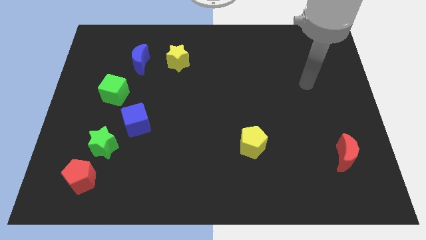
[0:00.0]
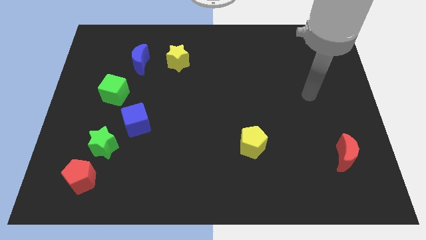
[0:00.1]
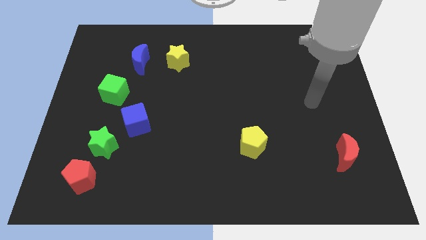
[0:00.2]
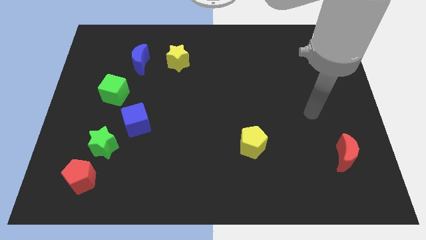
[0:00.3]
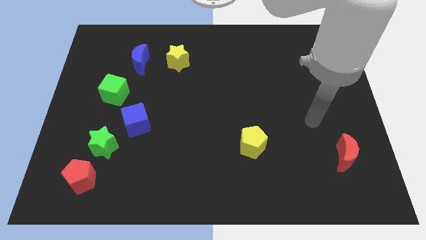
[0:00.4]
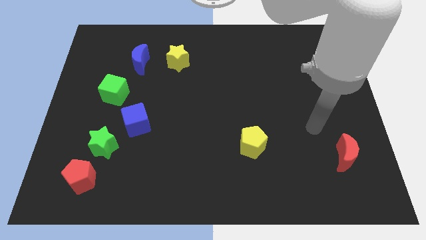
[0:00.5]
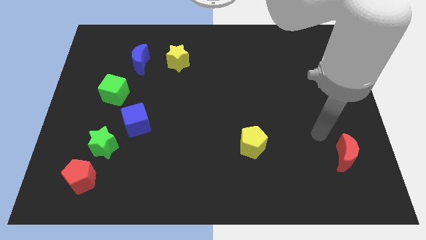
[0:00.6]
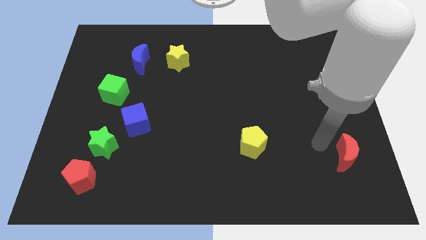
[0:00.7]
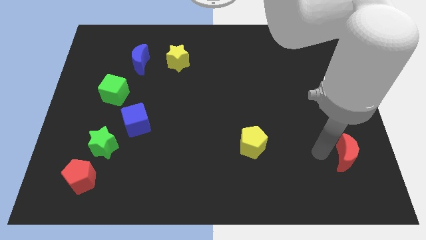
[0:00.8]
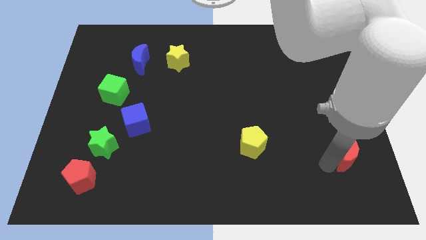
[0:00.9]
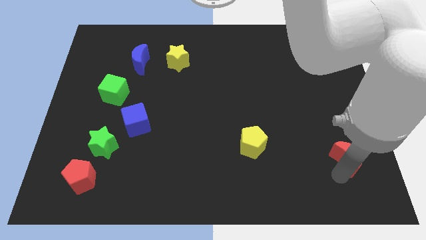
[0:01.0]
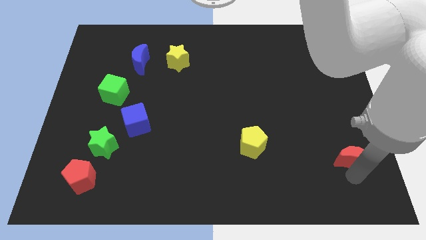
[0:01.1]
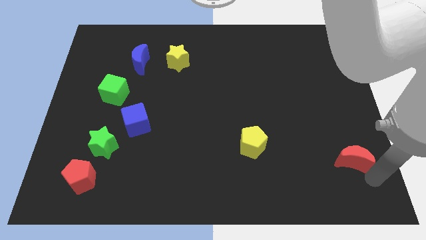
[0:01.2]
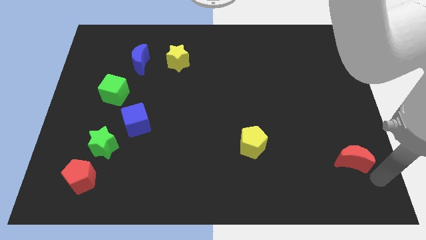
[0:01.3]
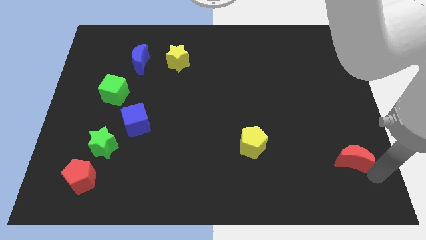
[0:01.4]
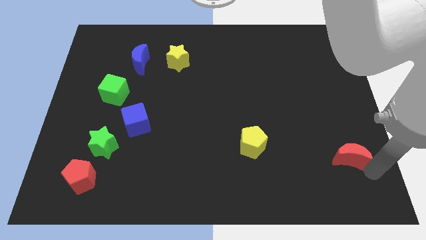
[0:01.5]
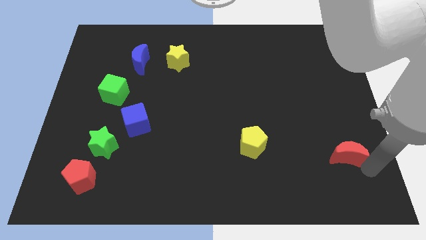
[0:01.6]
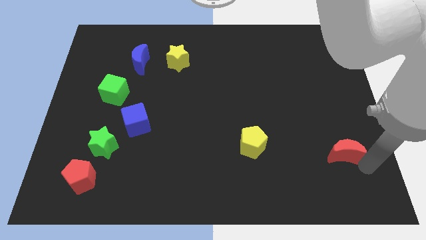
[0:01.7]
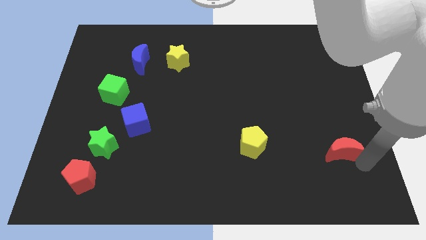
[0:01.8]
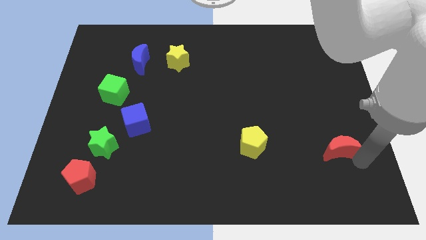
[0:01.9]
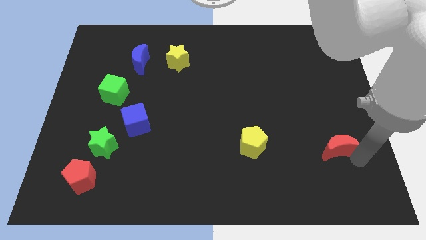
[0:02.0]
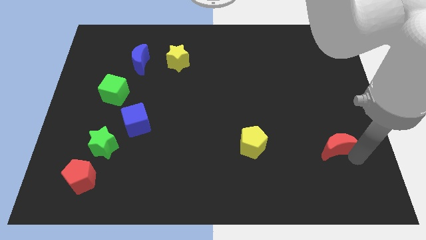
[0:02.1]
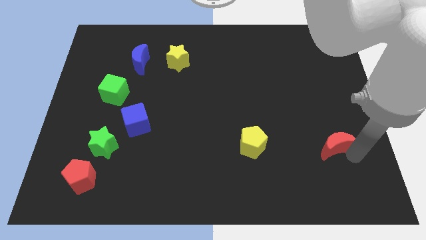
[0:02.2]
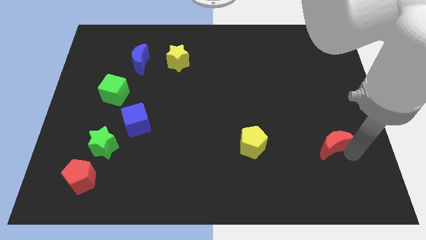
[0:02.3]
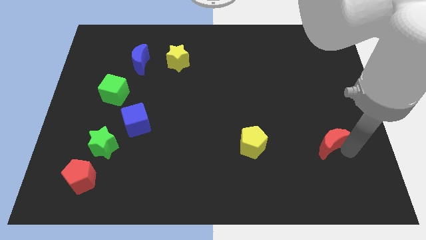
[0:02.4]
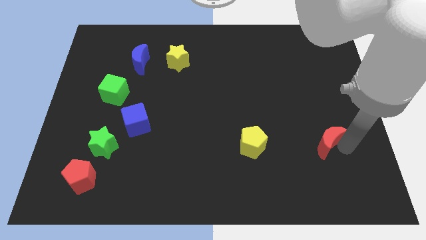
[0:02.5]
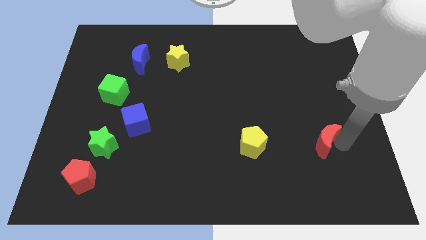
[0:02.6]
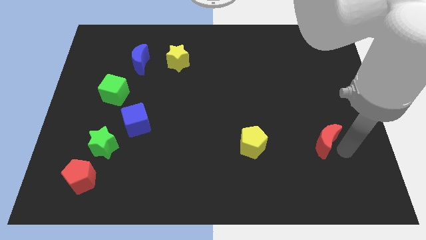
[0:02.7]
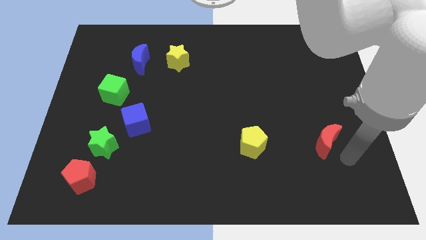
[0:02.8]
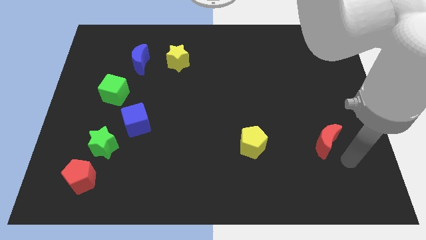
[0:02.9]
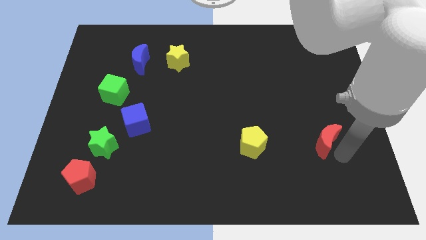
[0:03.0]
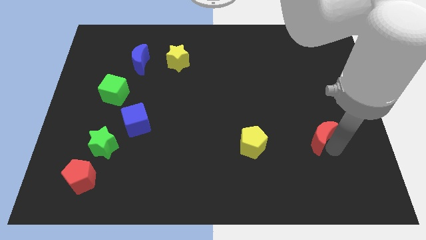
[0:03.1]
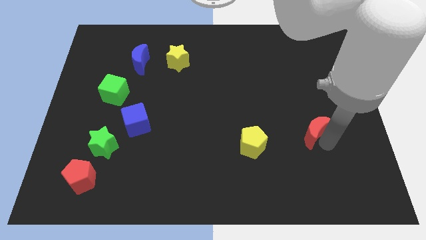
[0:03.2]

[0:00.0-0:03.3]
slightly push the red moon up and to the left diagonally

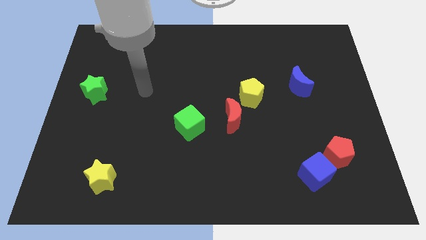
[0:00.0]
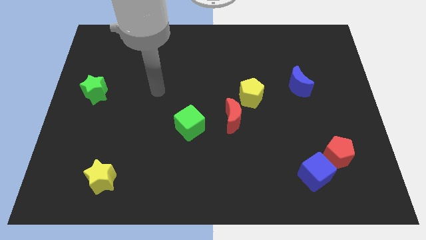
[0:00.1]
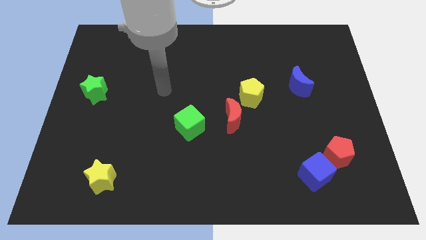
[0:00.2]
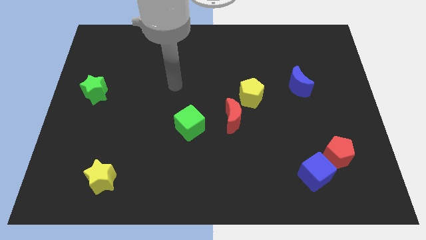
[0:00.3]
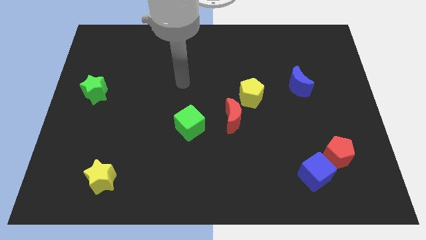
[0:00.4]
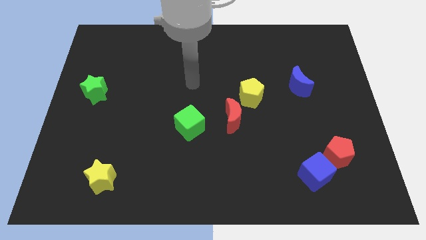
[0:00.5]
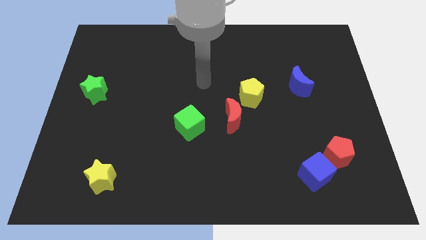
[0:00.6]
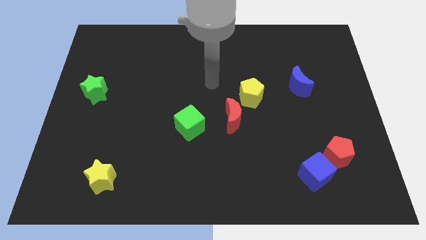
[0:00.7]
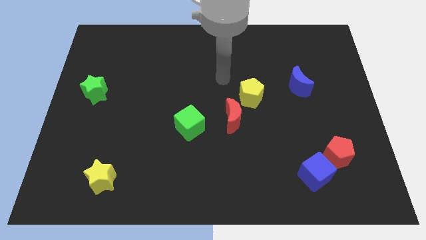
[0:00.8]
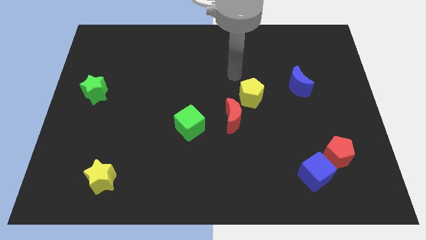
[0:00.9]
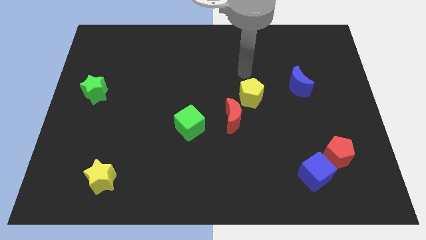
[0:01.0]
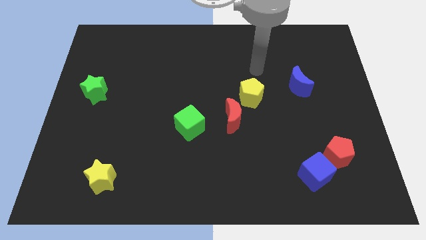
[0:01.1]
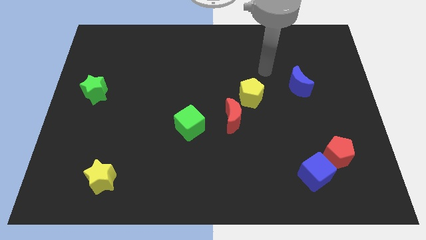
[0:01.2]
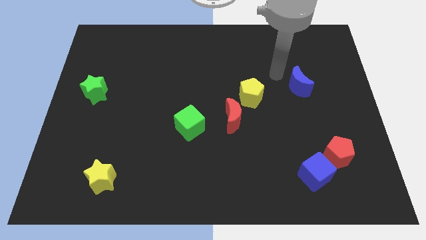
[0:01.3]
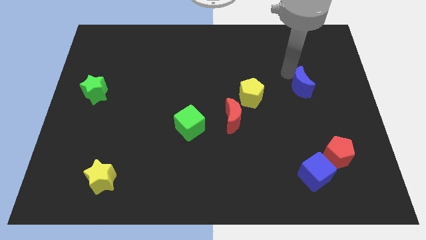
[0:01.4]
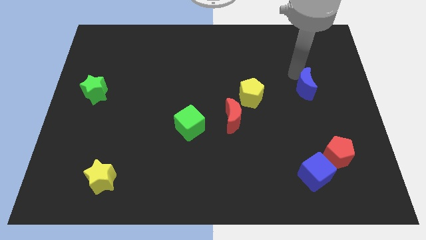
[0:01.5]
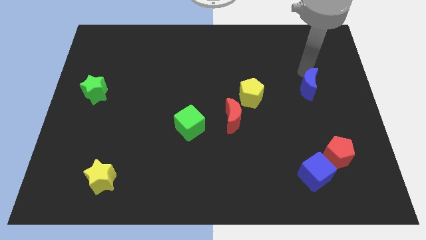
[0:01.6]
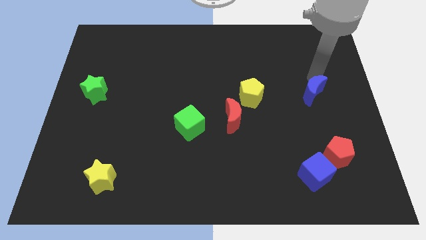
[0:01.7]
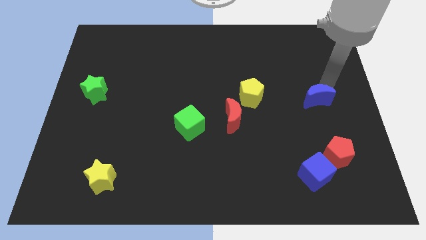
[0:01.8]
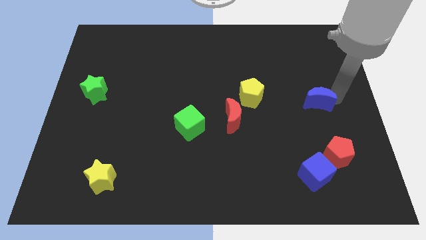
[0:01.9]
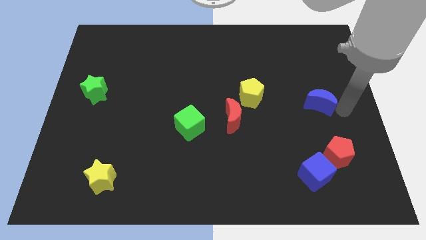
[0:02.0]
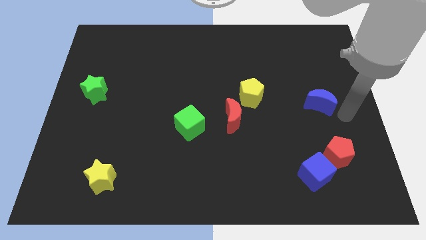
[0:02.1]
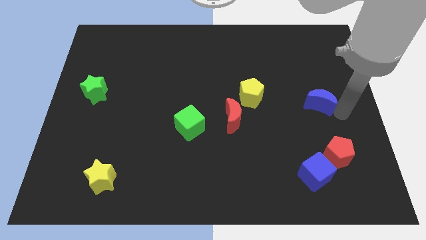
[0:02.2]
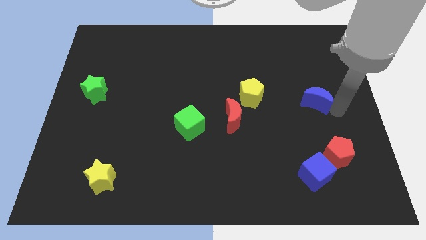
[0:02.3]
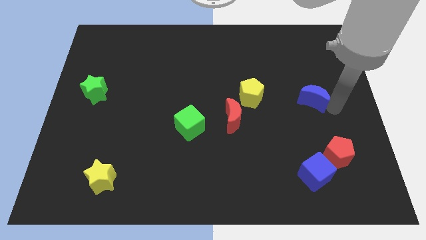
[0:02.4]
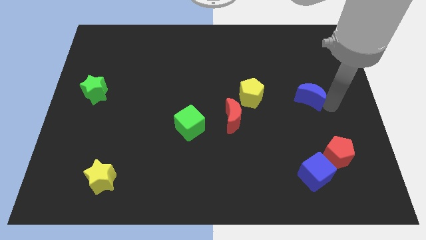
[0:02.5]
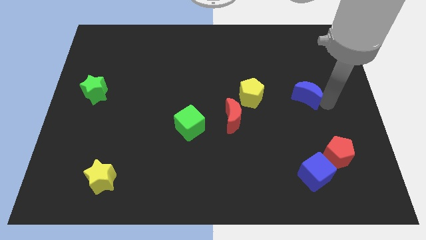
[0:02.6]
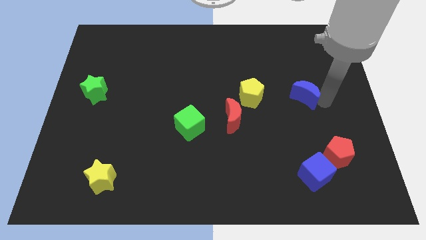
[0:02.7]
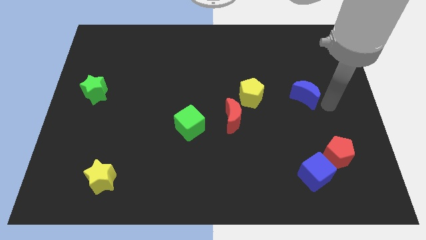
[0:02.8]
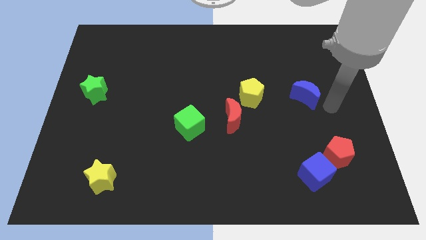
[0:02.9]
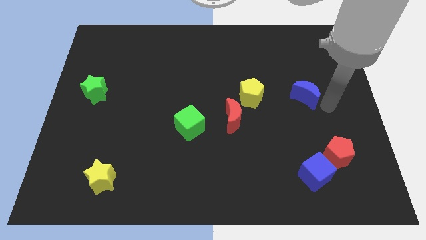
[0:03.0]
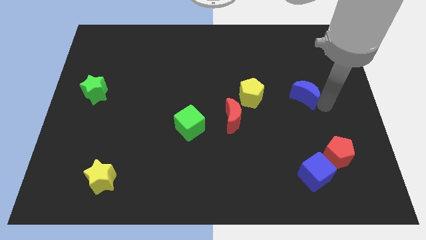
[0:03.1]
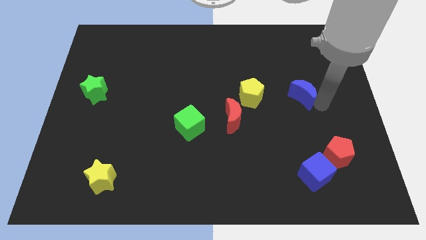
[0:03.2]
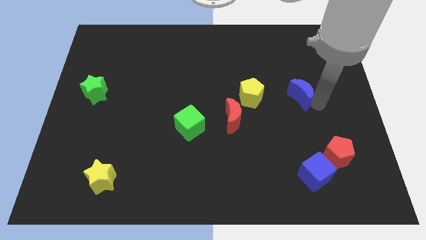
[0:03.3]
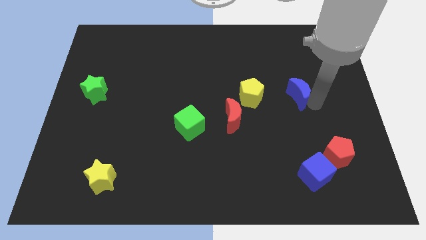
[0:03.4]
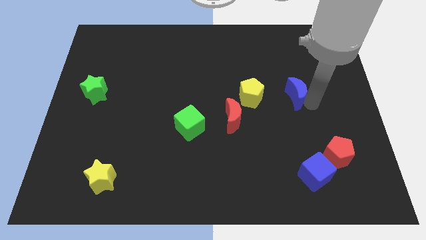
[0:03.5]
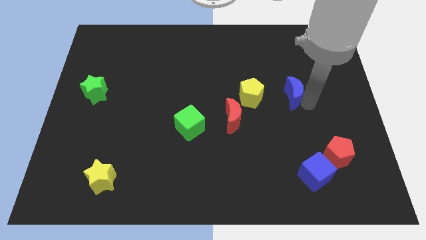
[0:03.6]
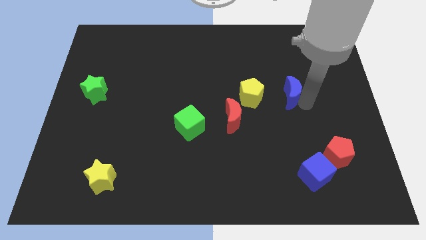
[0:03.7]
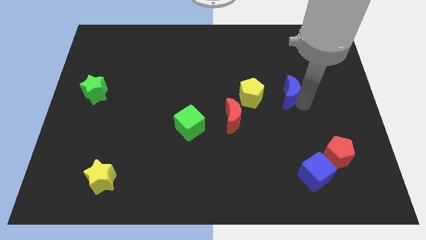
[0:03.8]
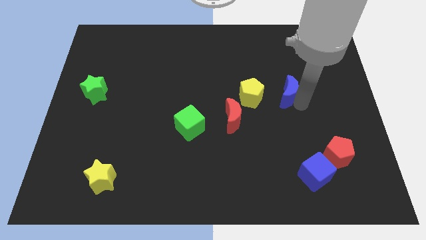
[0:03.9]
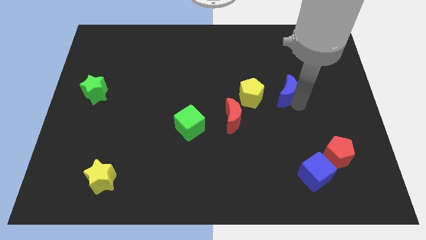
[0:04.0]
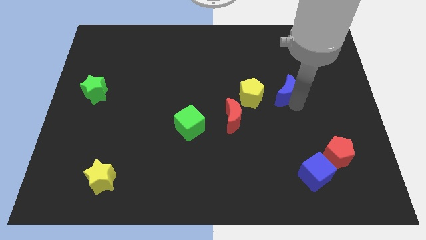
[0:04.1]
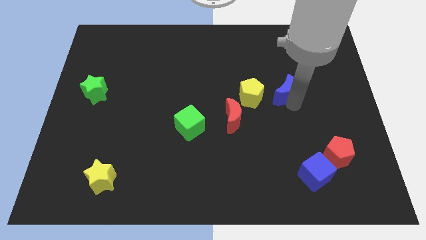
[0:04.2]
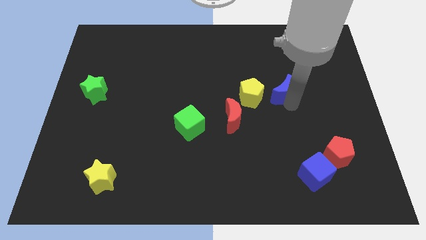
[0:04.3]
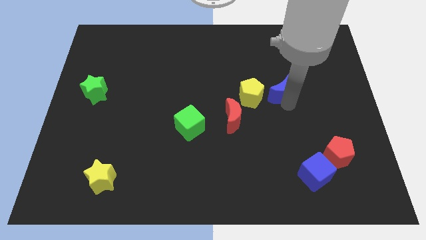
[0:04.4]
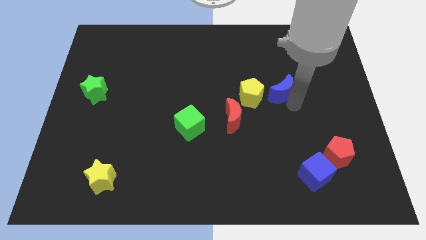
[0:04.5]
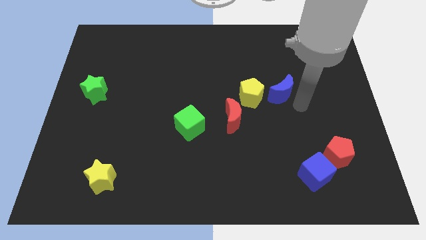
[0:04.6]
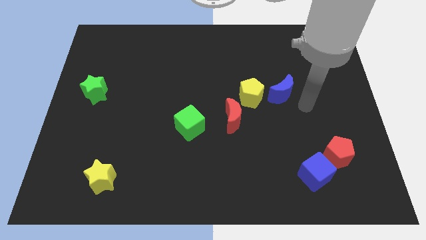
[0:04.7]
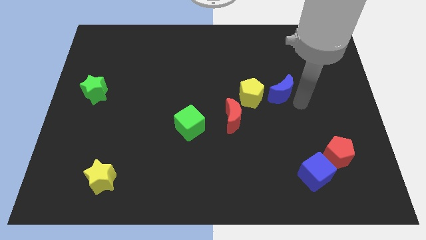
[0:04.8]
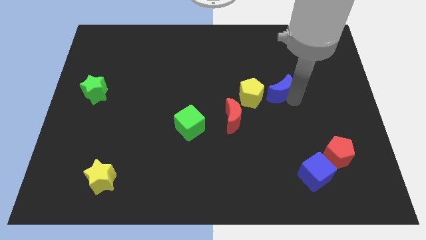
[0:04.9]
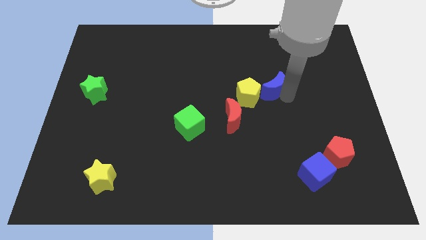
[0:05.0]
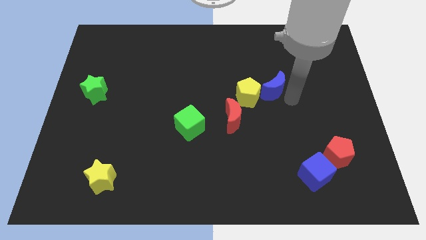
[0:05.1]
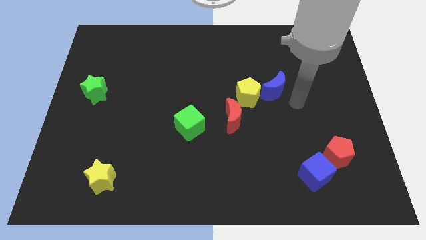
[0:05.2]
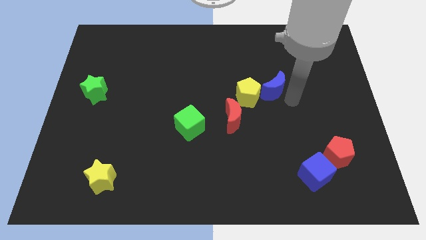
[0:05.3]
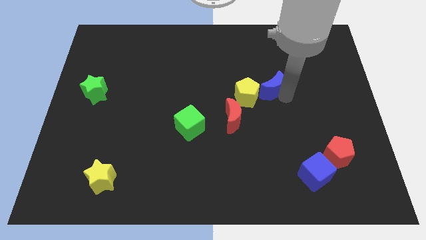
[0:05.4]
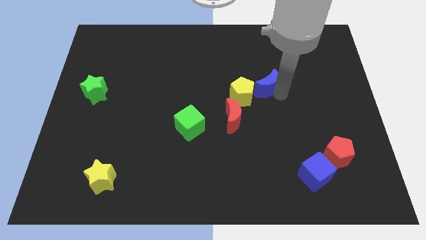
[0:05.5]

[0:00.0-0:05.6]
push the blue moon a bit left
